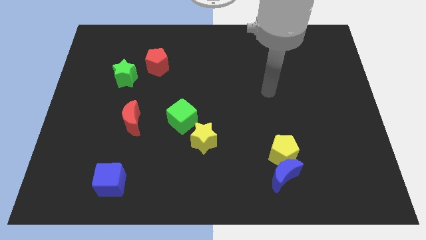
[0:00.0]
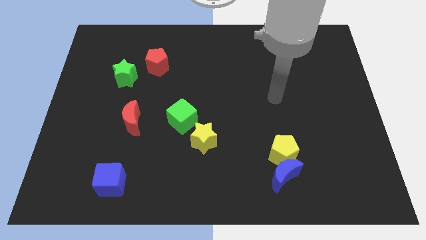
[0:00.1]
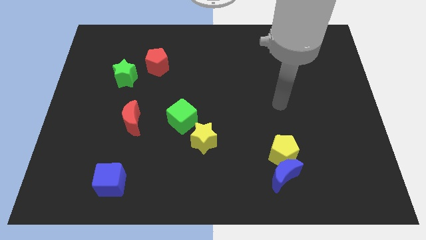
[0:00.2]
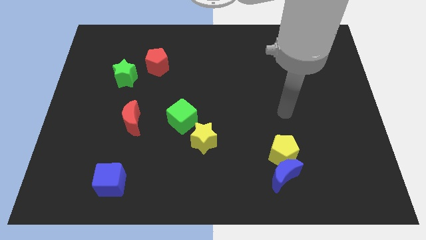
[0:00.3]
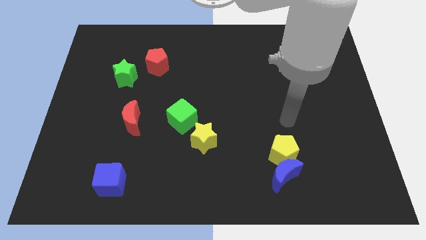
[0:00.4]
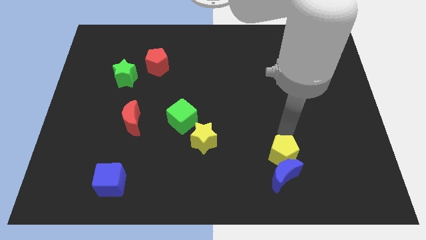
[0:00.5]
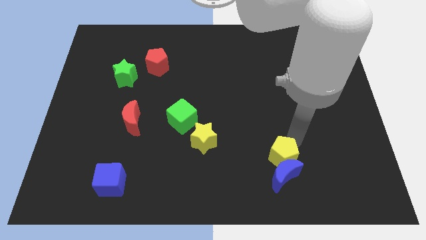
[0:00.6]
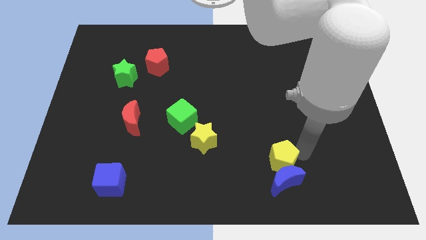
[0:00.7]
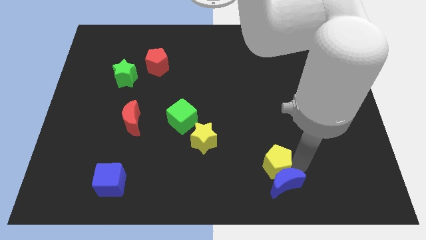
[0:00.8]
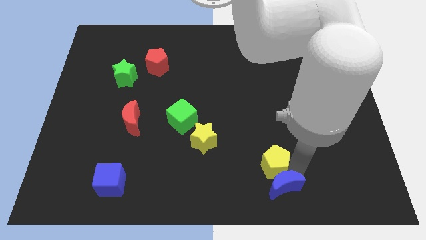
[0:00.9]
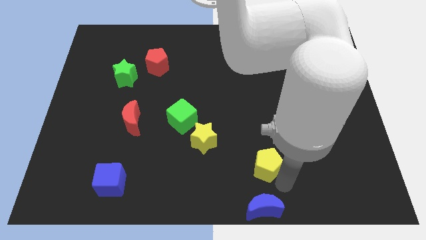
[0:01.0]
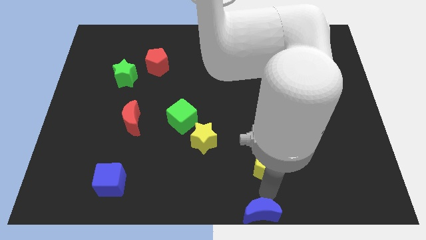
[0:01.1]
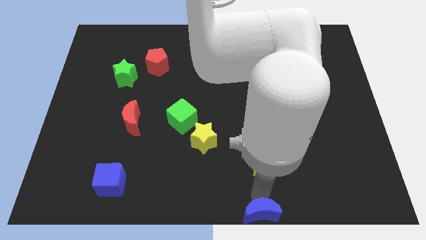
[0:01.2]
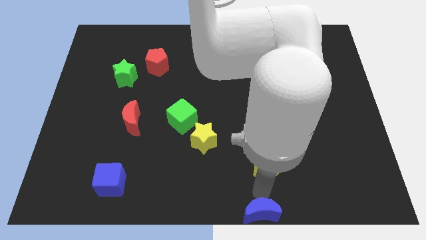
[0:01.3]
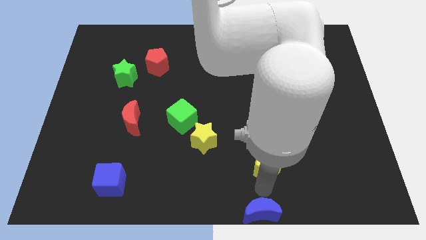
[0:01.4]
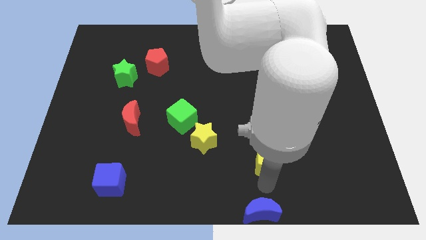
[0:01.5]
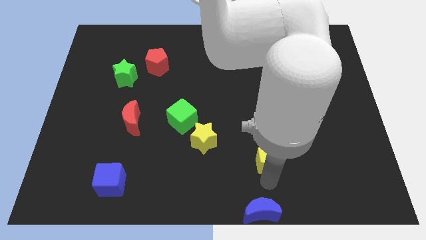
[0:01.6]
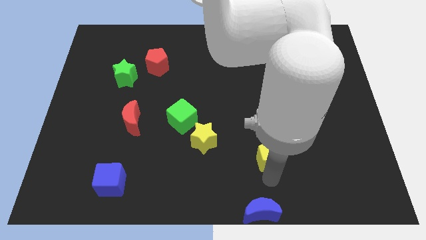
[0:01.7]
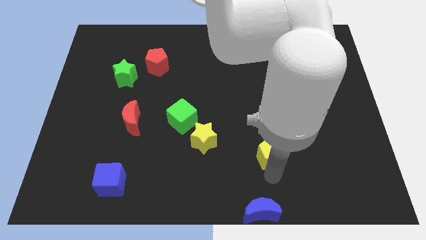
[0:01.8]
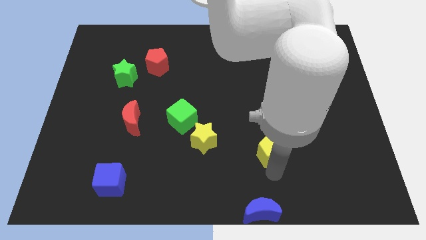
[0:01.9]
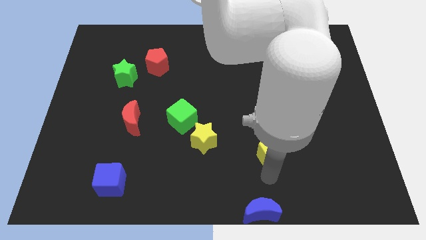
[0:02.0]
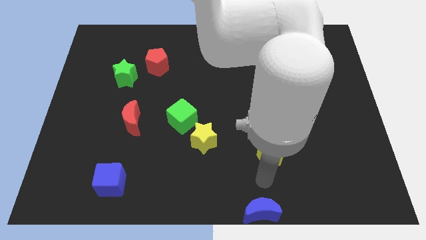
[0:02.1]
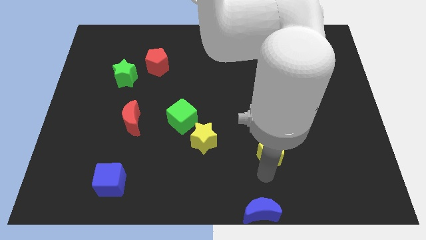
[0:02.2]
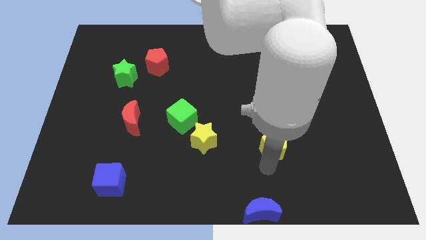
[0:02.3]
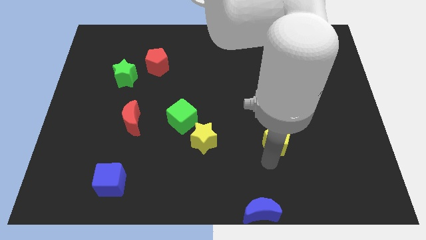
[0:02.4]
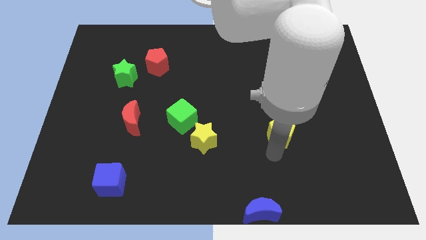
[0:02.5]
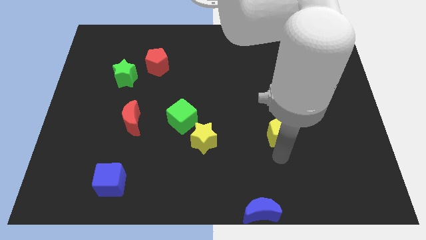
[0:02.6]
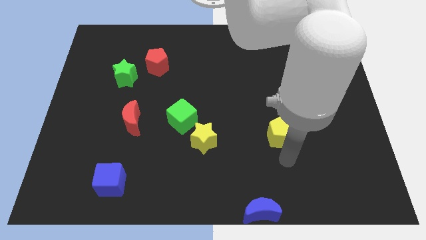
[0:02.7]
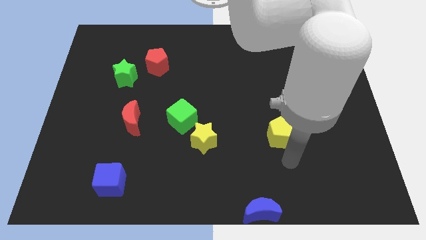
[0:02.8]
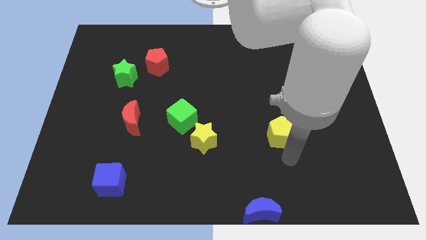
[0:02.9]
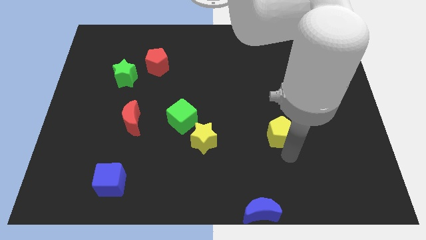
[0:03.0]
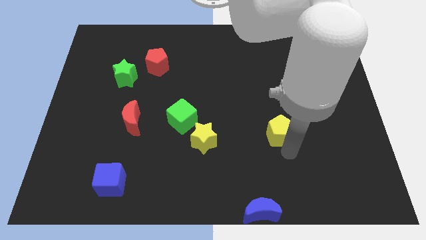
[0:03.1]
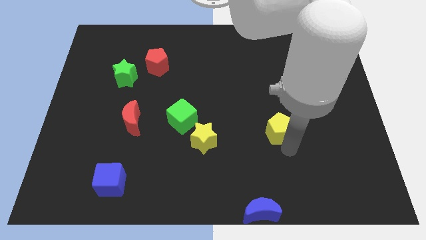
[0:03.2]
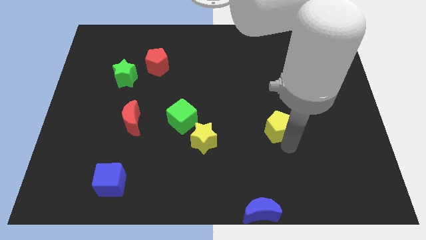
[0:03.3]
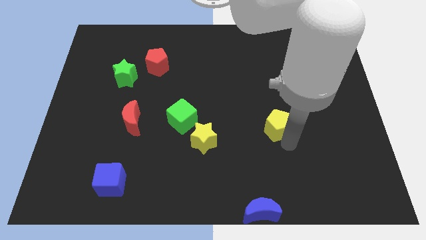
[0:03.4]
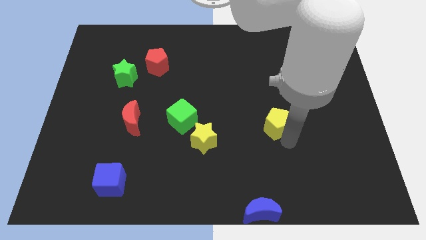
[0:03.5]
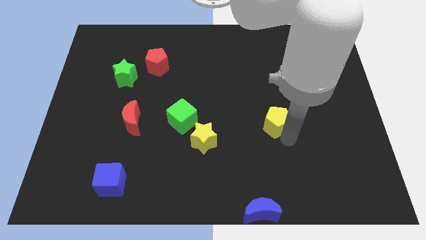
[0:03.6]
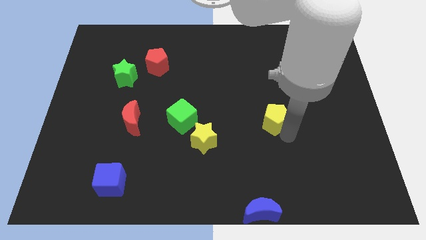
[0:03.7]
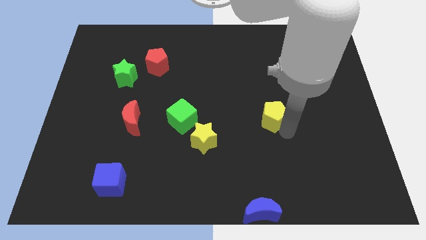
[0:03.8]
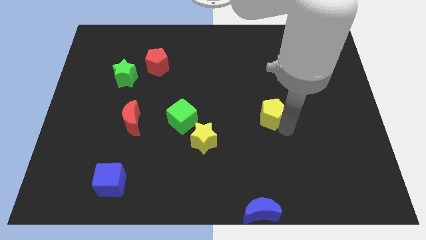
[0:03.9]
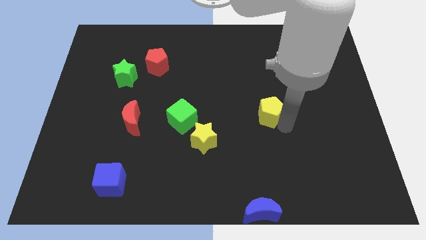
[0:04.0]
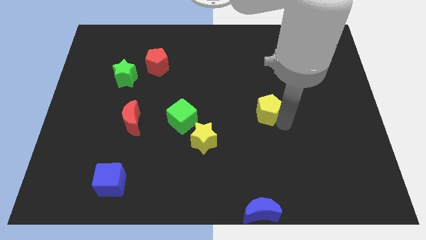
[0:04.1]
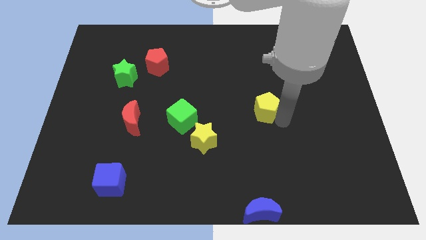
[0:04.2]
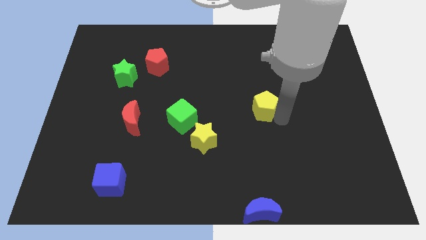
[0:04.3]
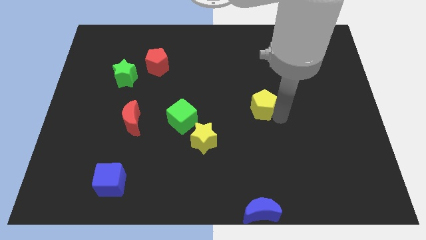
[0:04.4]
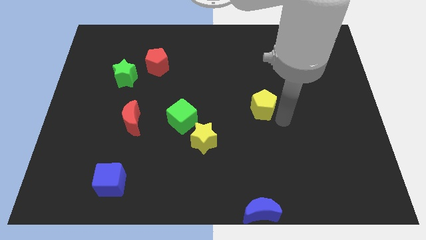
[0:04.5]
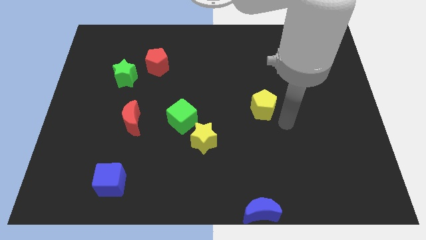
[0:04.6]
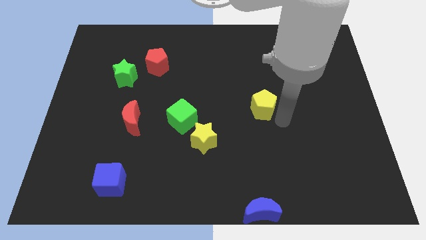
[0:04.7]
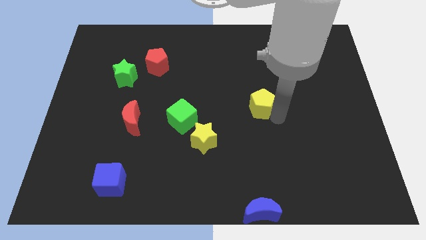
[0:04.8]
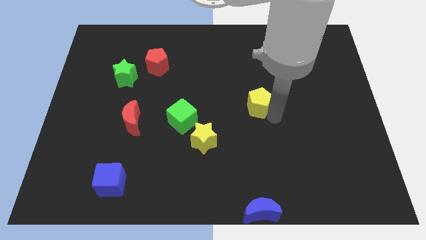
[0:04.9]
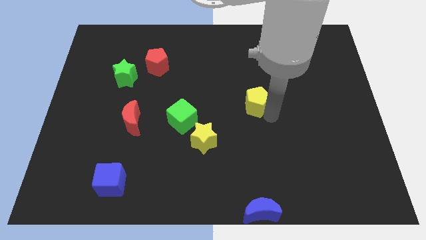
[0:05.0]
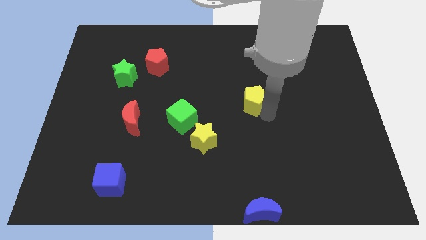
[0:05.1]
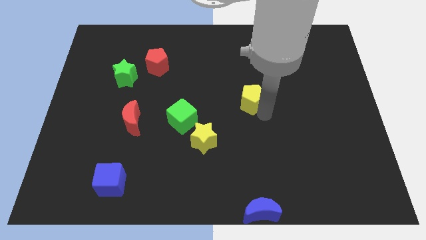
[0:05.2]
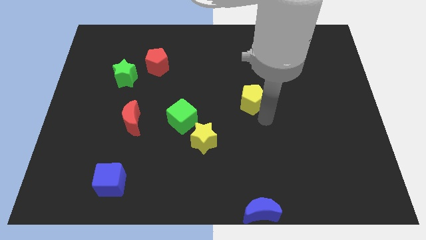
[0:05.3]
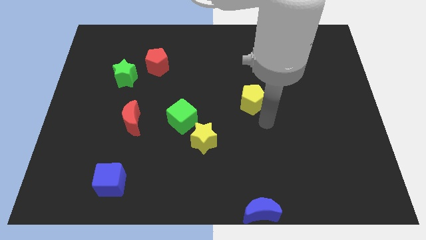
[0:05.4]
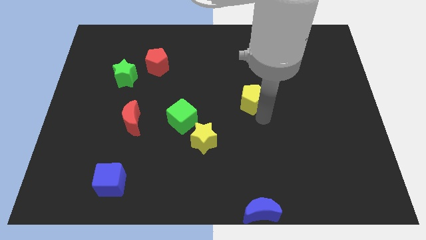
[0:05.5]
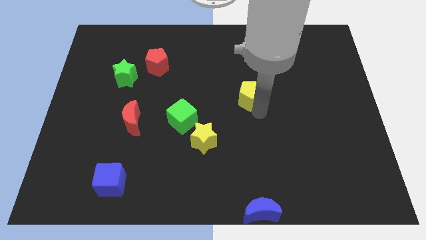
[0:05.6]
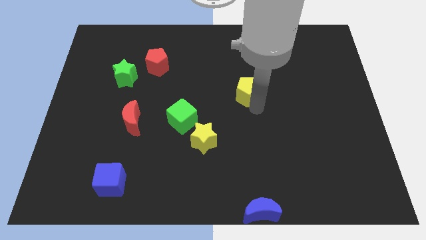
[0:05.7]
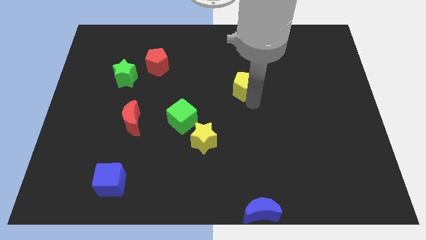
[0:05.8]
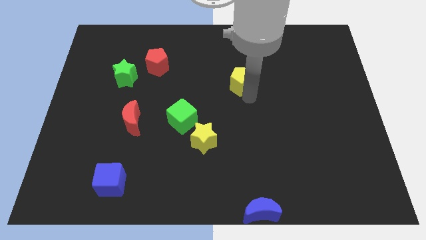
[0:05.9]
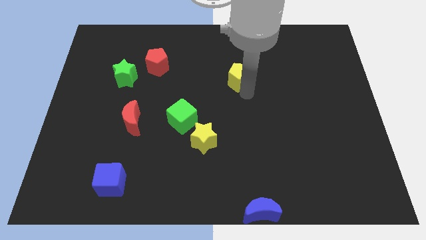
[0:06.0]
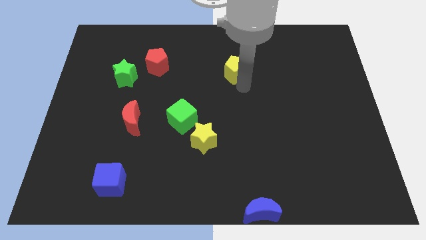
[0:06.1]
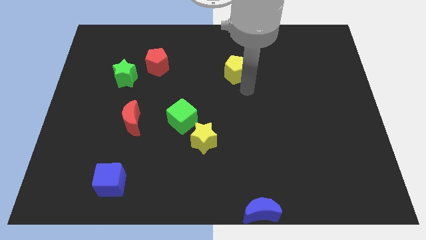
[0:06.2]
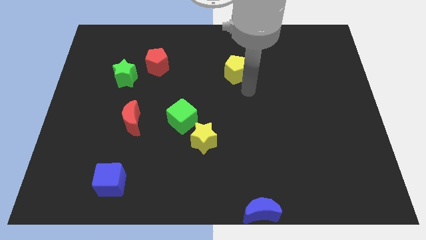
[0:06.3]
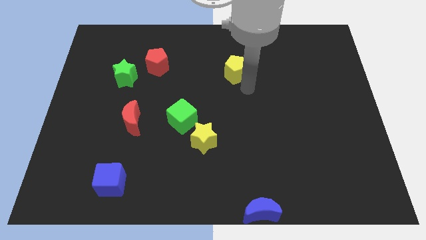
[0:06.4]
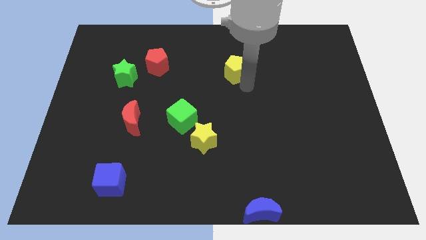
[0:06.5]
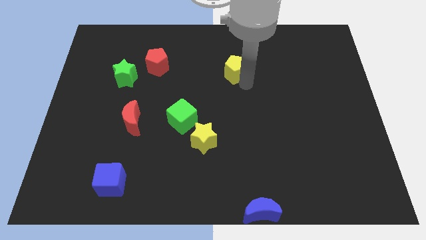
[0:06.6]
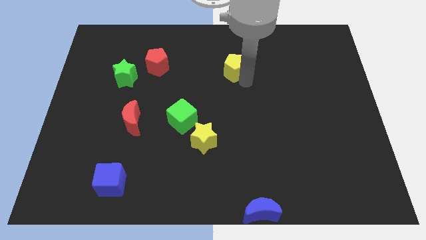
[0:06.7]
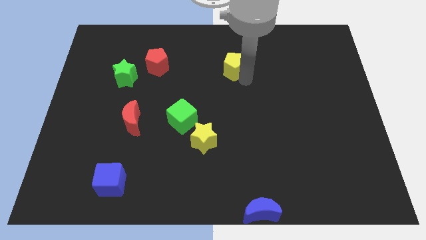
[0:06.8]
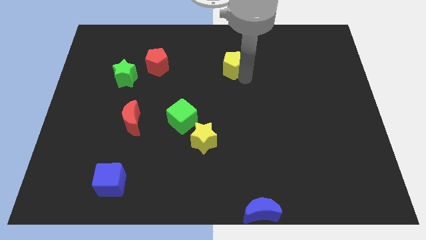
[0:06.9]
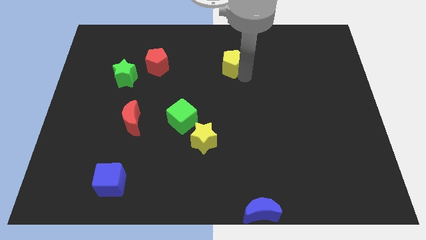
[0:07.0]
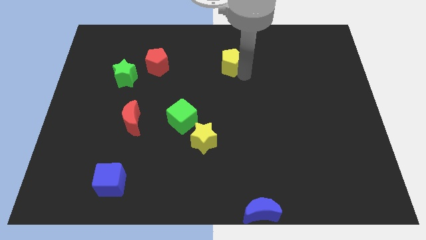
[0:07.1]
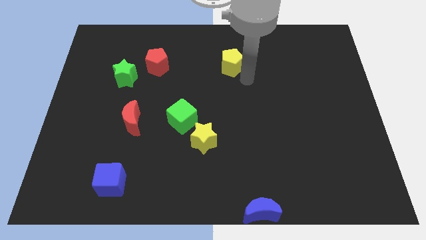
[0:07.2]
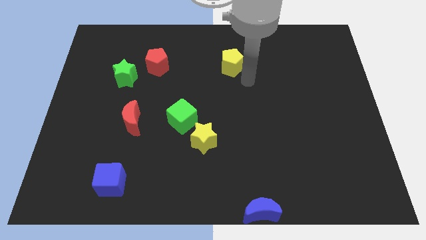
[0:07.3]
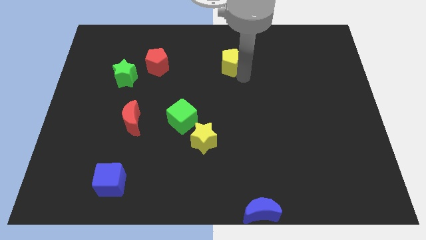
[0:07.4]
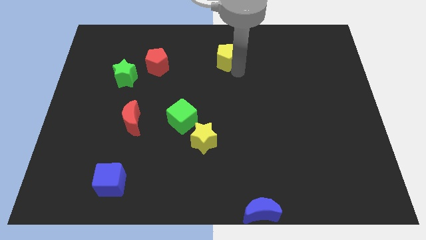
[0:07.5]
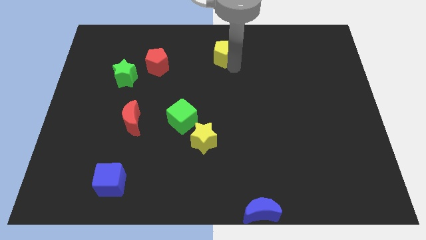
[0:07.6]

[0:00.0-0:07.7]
slide the yellow pentagon to the top

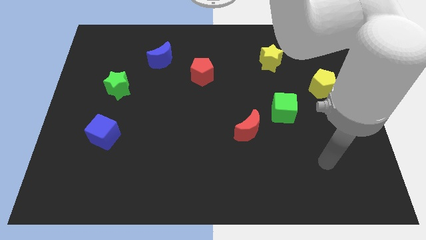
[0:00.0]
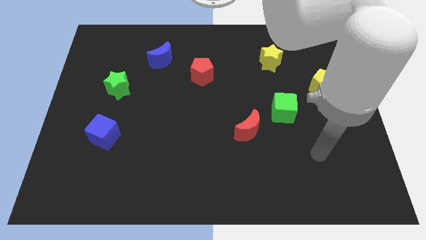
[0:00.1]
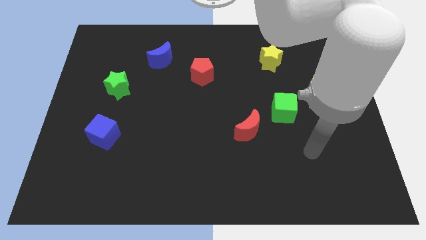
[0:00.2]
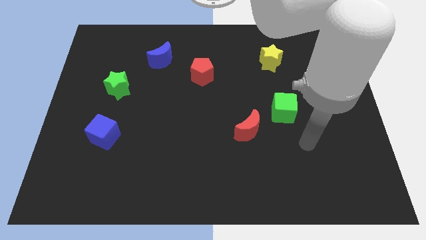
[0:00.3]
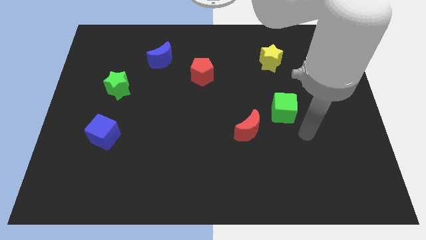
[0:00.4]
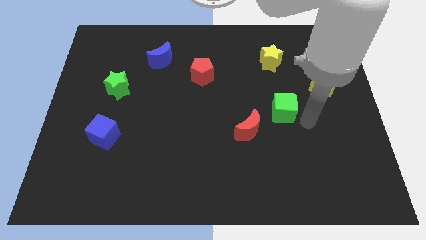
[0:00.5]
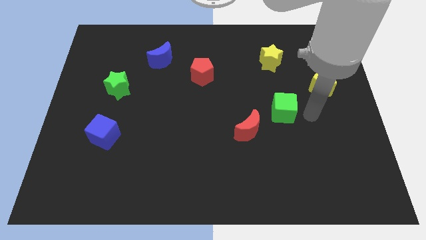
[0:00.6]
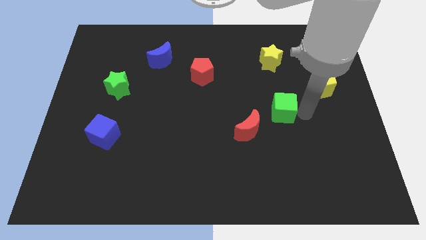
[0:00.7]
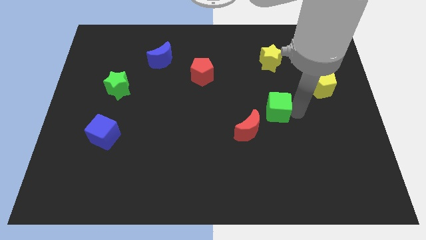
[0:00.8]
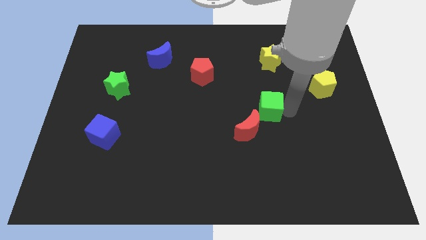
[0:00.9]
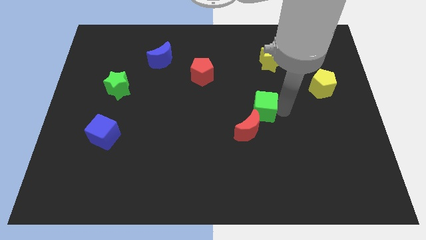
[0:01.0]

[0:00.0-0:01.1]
put the green cube to the center
